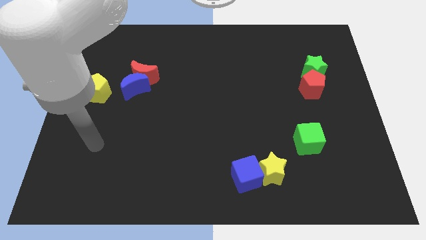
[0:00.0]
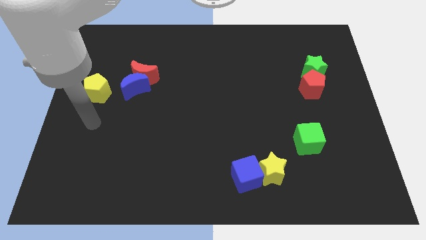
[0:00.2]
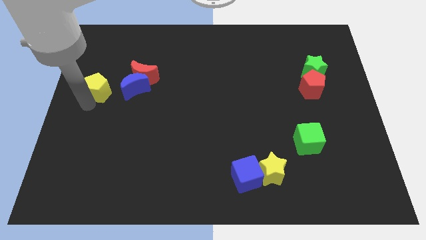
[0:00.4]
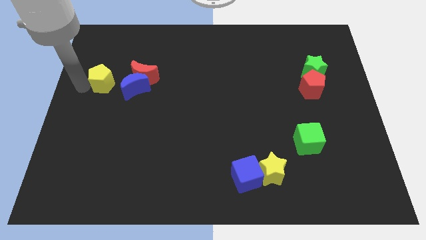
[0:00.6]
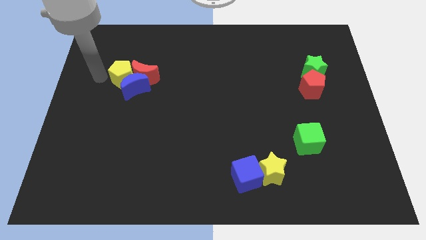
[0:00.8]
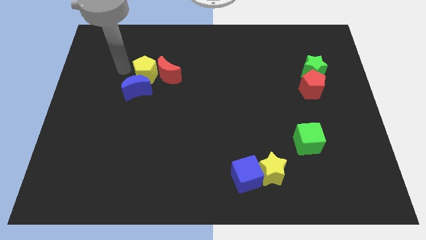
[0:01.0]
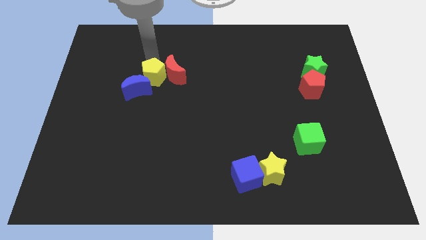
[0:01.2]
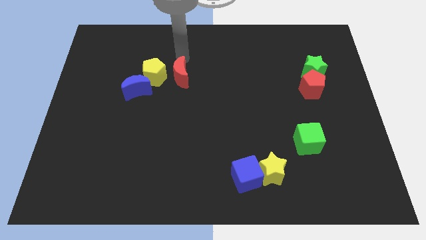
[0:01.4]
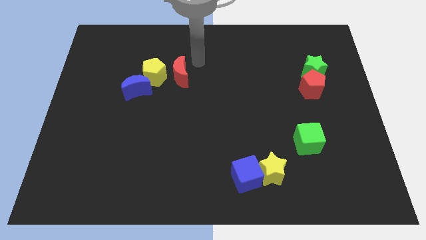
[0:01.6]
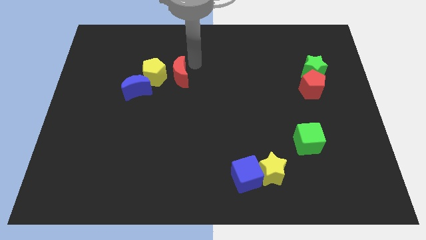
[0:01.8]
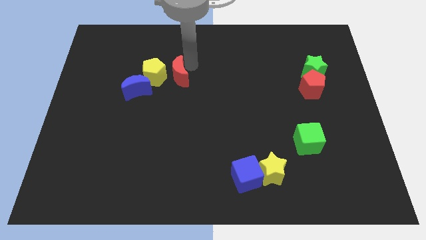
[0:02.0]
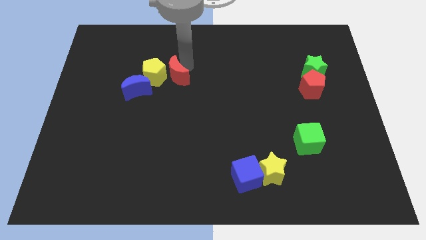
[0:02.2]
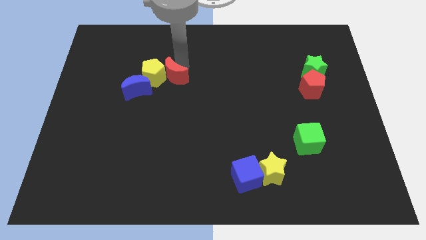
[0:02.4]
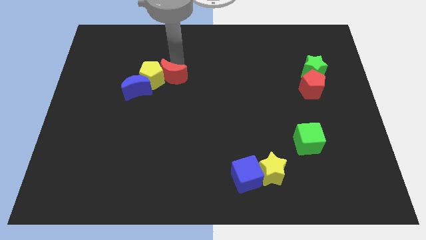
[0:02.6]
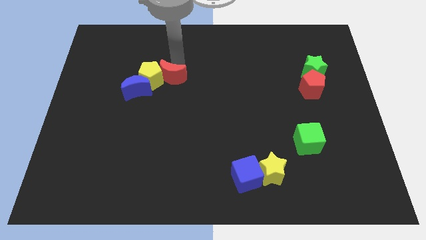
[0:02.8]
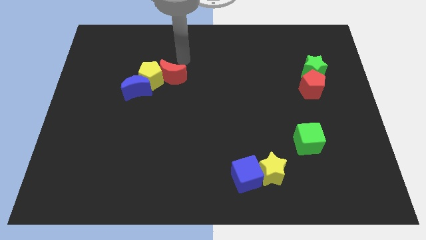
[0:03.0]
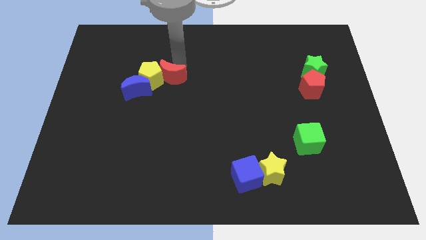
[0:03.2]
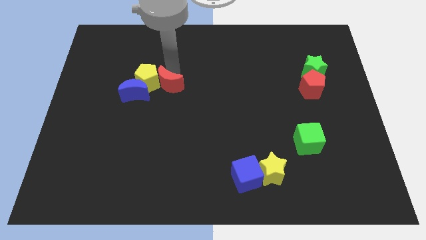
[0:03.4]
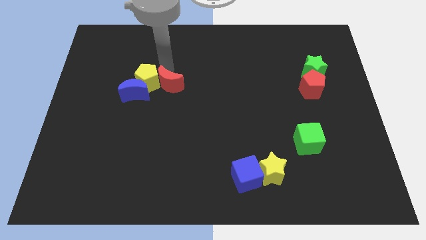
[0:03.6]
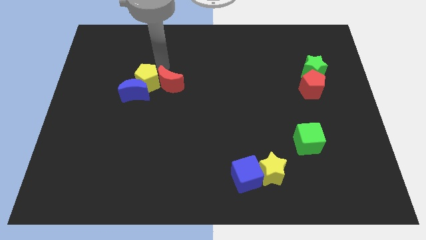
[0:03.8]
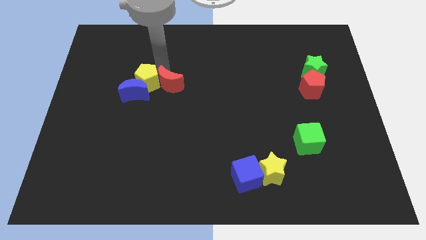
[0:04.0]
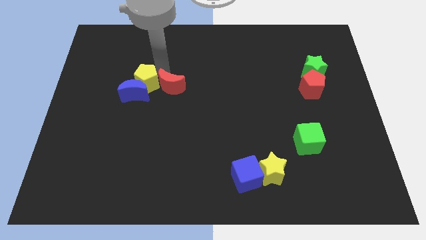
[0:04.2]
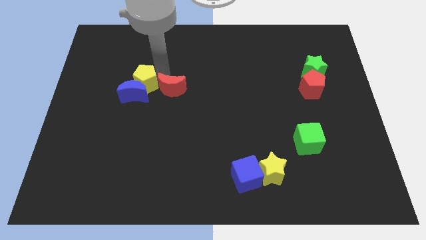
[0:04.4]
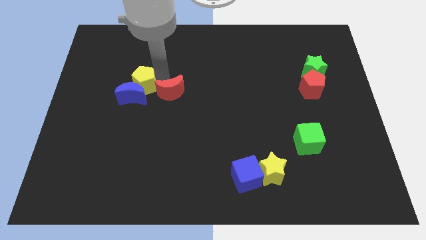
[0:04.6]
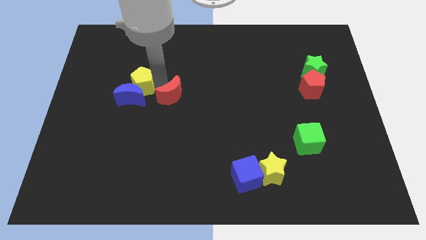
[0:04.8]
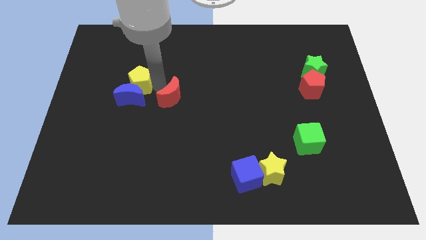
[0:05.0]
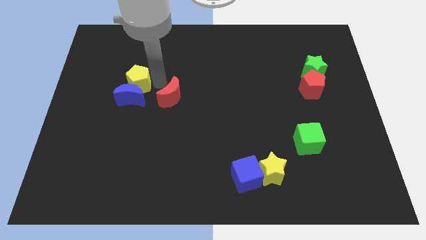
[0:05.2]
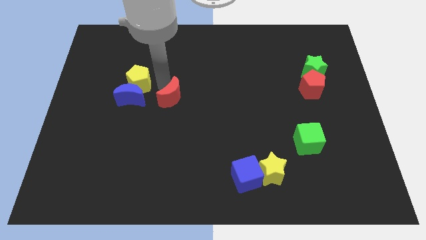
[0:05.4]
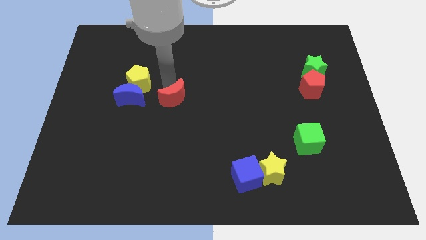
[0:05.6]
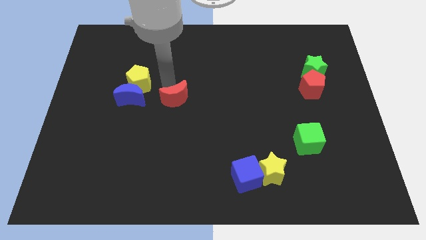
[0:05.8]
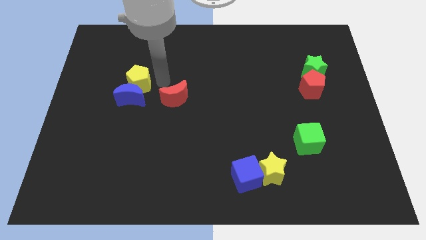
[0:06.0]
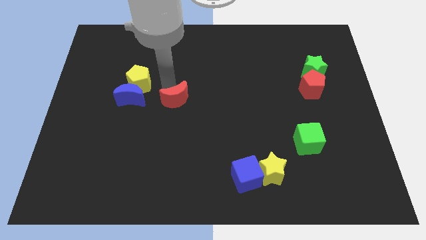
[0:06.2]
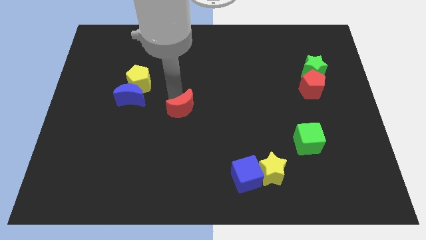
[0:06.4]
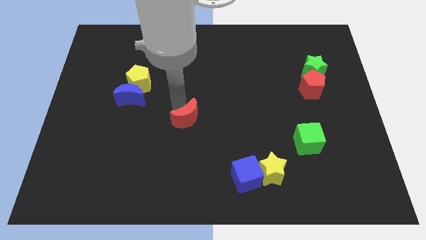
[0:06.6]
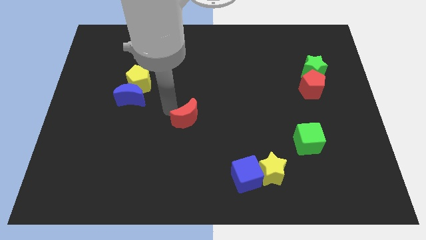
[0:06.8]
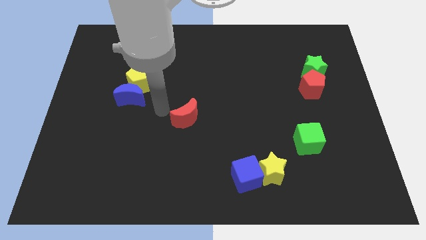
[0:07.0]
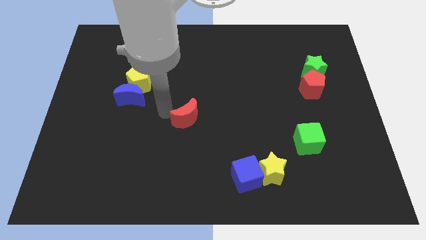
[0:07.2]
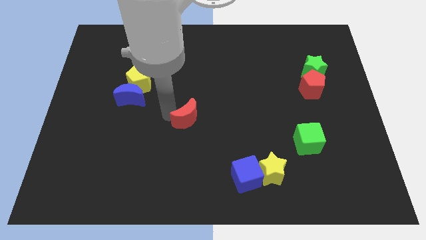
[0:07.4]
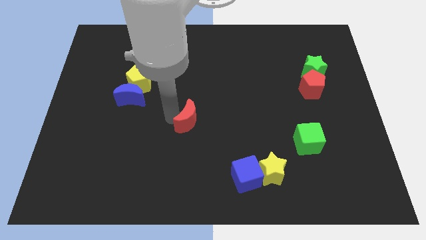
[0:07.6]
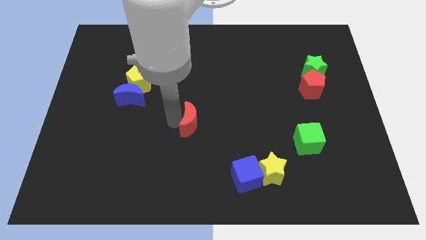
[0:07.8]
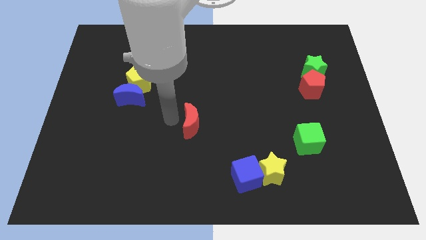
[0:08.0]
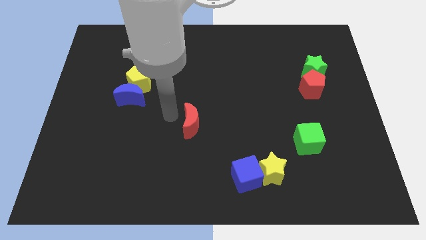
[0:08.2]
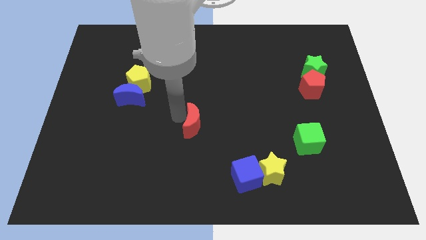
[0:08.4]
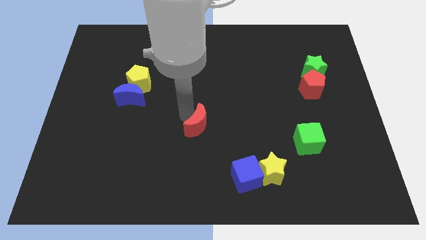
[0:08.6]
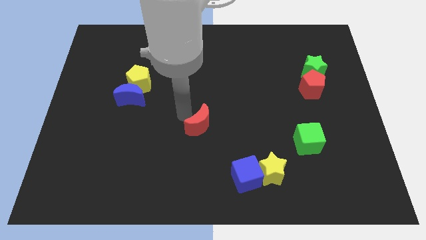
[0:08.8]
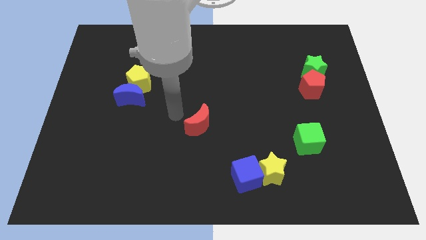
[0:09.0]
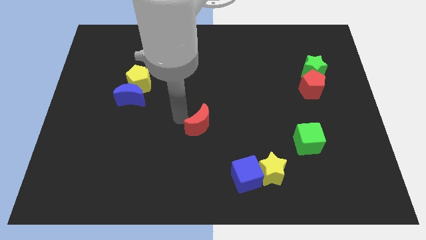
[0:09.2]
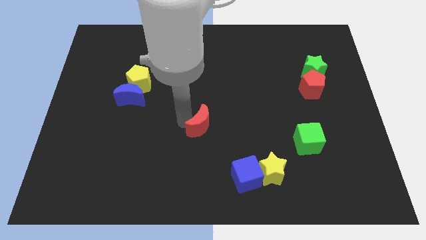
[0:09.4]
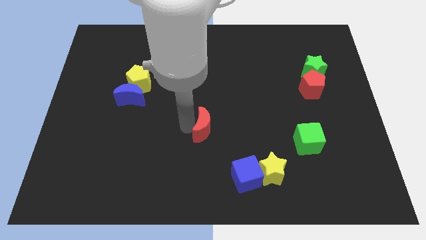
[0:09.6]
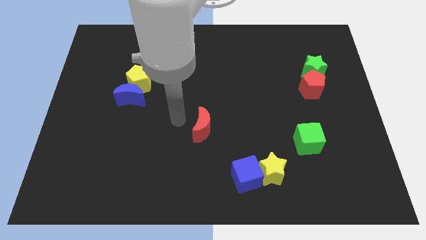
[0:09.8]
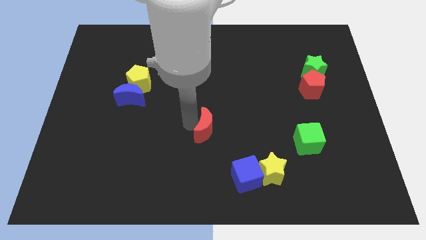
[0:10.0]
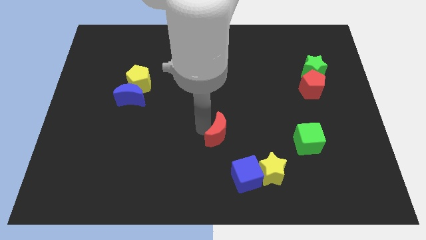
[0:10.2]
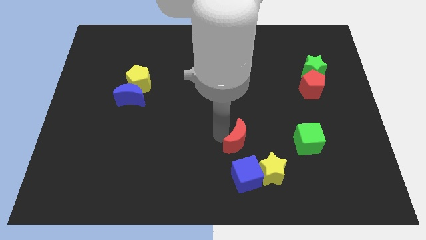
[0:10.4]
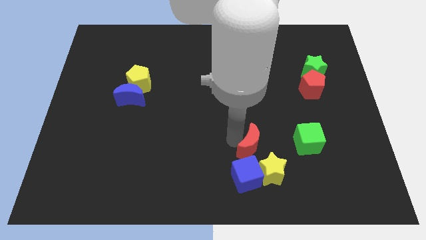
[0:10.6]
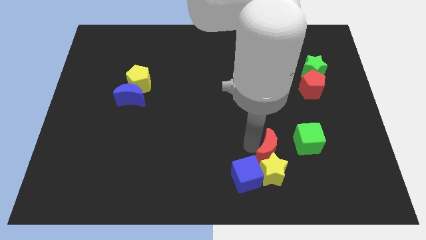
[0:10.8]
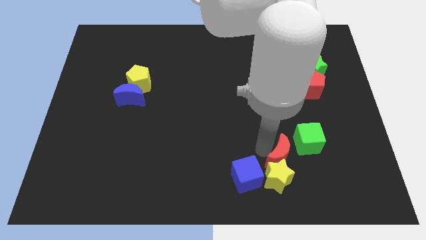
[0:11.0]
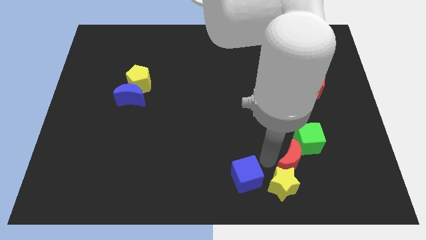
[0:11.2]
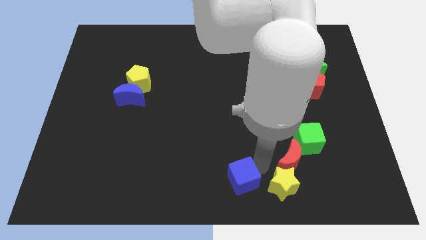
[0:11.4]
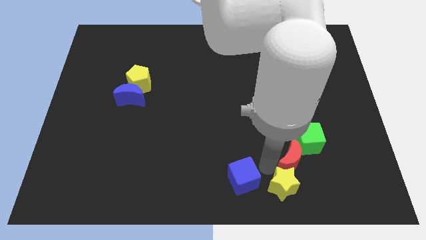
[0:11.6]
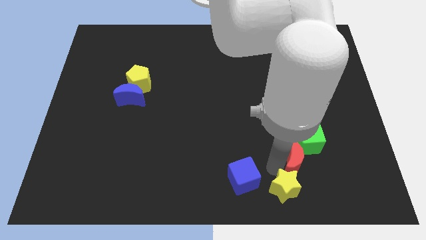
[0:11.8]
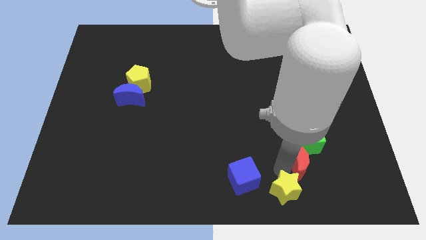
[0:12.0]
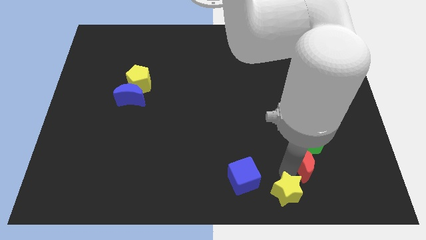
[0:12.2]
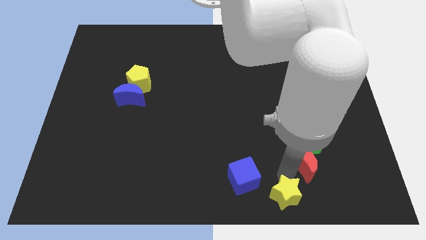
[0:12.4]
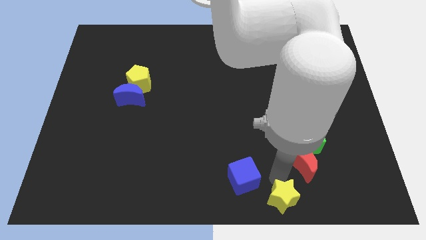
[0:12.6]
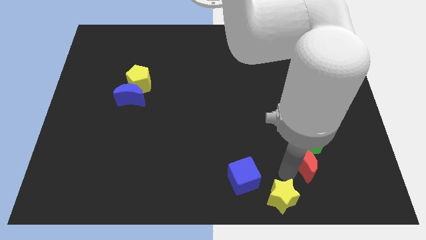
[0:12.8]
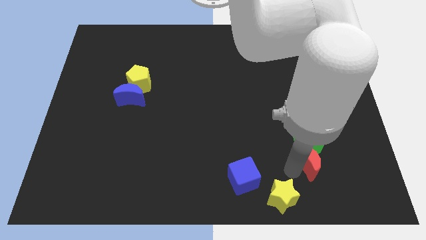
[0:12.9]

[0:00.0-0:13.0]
slide the red moon diagonally down and to the right of the green cube

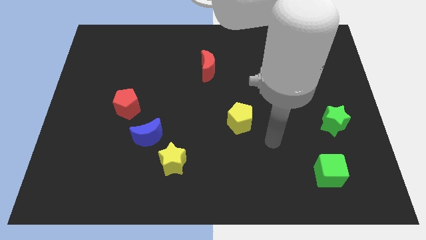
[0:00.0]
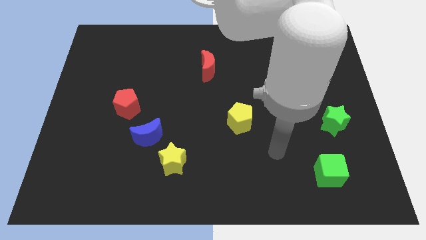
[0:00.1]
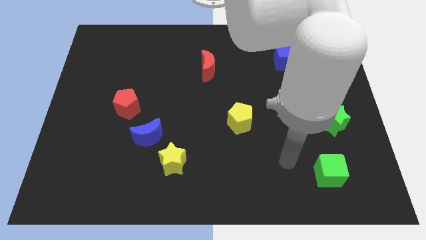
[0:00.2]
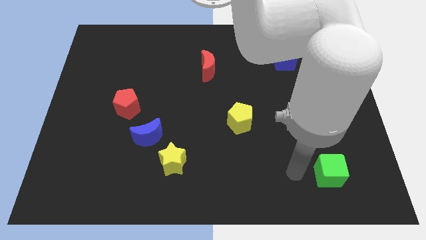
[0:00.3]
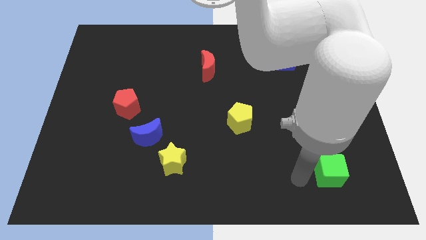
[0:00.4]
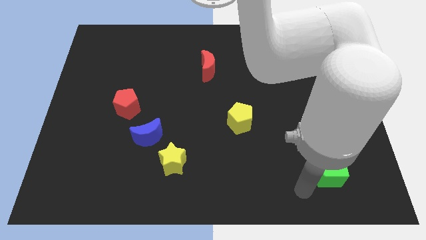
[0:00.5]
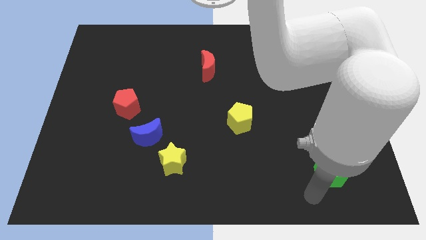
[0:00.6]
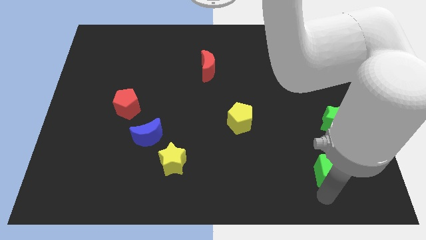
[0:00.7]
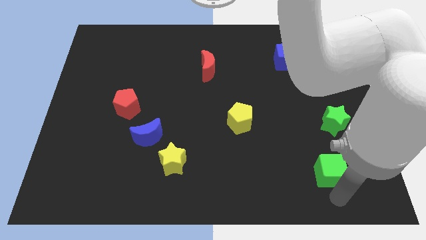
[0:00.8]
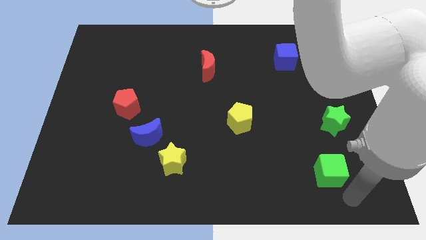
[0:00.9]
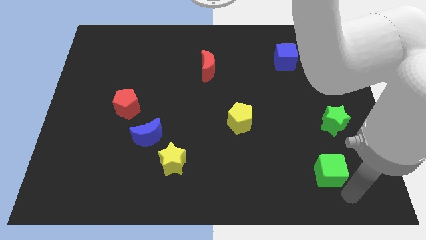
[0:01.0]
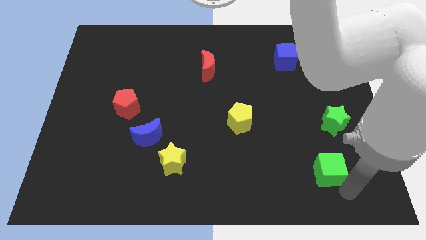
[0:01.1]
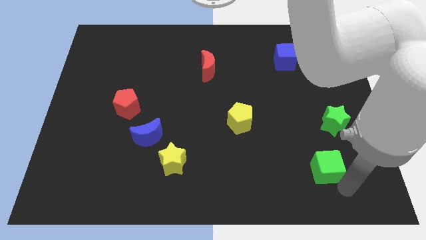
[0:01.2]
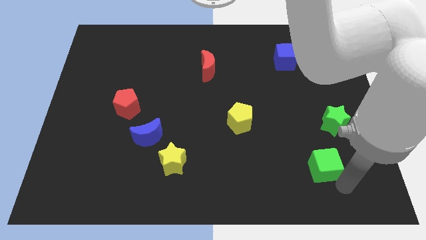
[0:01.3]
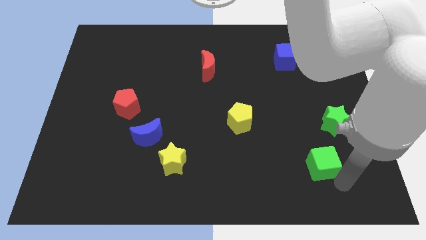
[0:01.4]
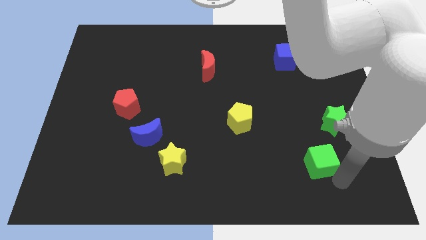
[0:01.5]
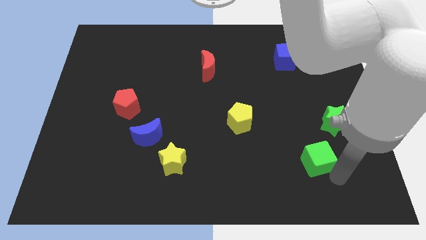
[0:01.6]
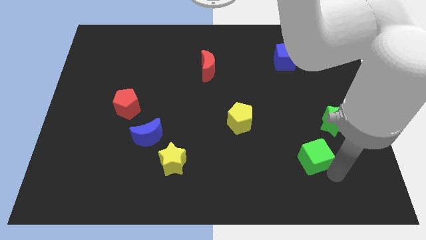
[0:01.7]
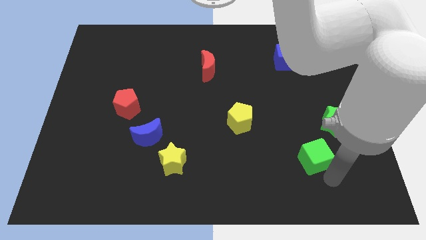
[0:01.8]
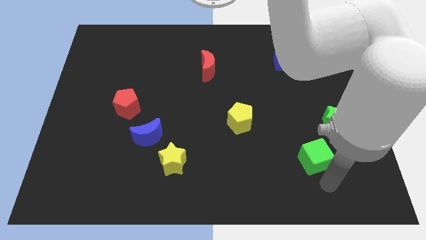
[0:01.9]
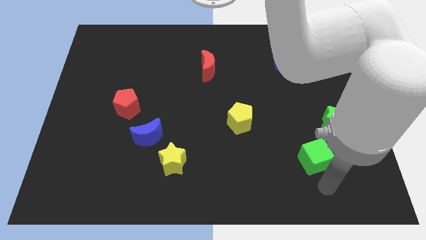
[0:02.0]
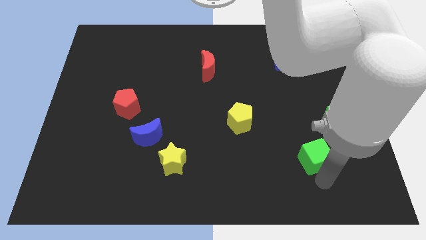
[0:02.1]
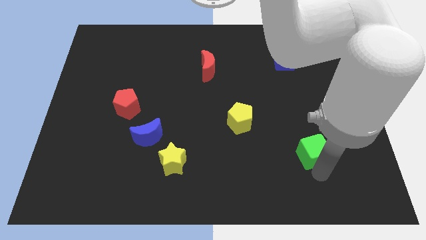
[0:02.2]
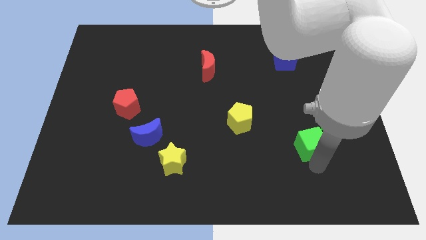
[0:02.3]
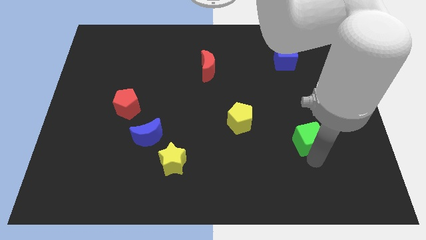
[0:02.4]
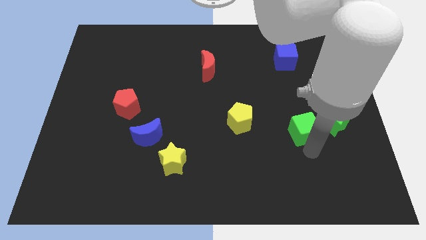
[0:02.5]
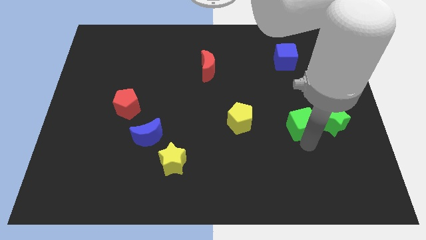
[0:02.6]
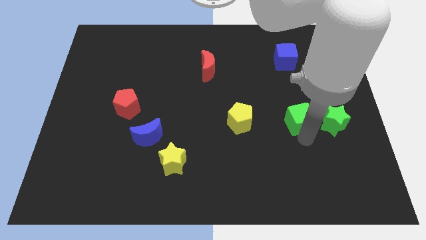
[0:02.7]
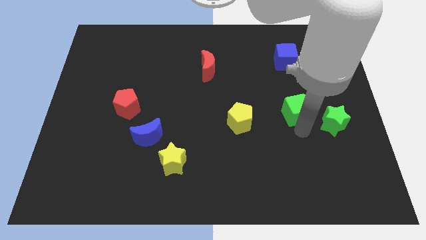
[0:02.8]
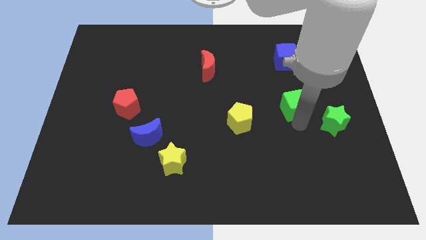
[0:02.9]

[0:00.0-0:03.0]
push the green cube to the bottom of the blue cube
